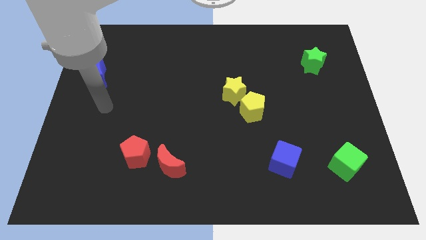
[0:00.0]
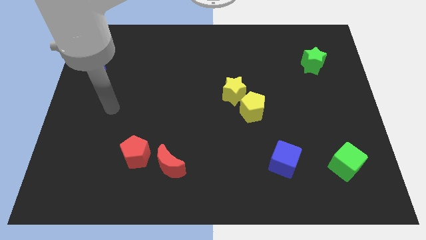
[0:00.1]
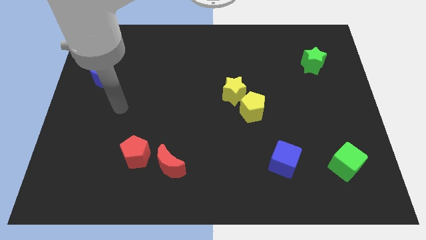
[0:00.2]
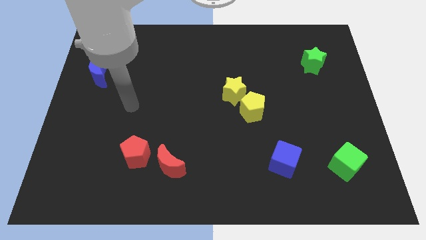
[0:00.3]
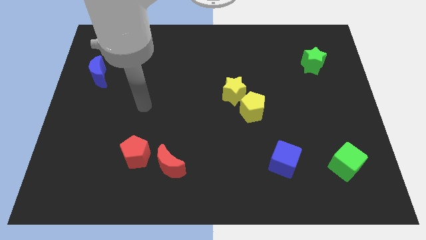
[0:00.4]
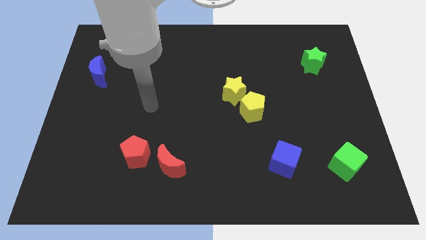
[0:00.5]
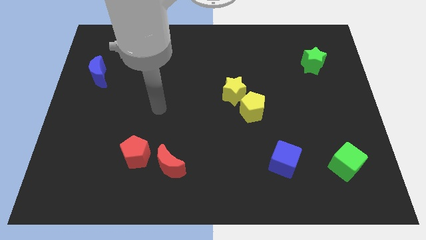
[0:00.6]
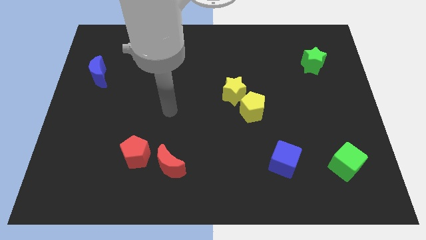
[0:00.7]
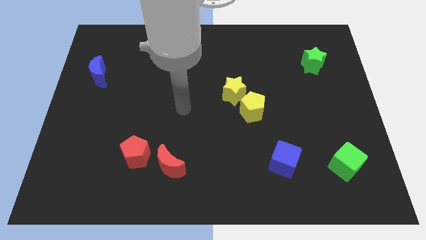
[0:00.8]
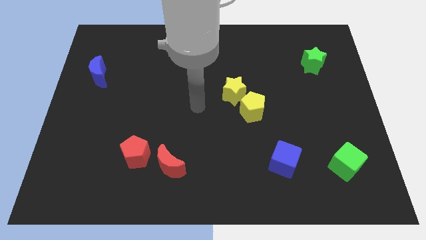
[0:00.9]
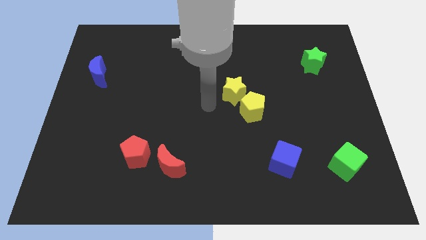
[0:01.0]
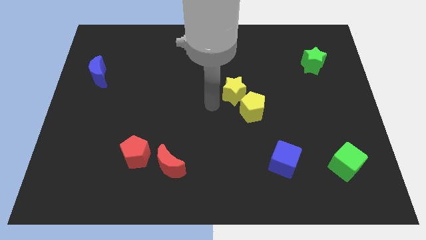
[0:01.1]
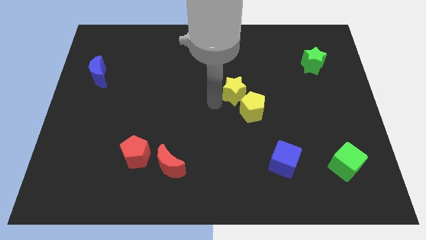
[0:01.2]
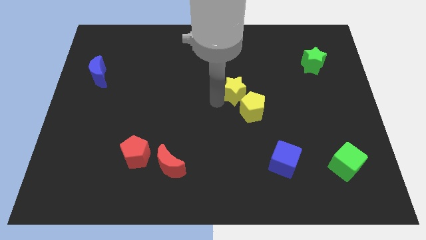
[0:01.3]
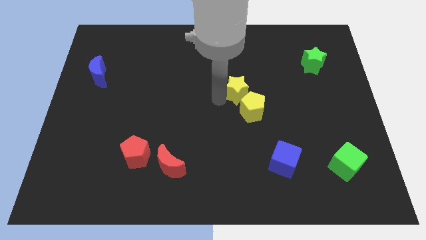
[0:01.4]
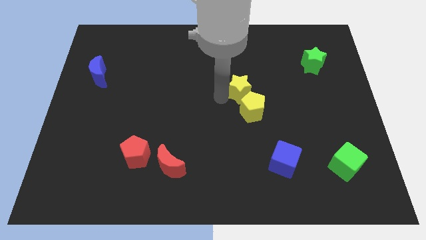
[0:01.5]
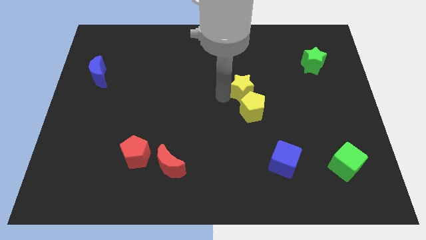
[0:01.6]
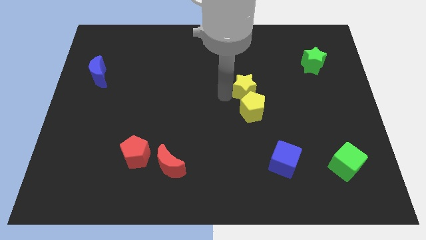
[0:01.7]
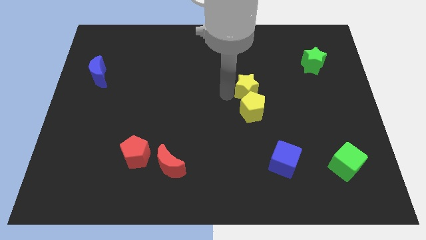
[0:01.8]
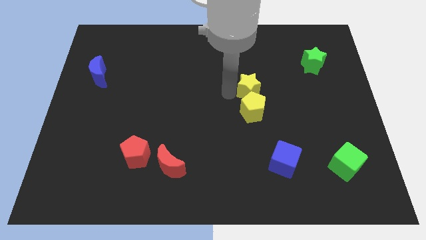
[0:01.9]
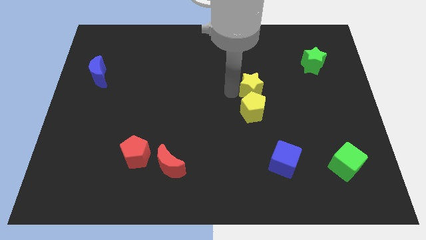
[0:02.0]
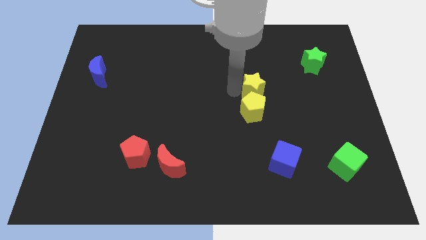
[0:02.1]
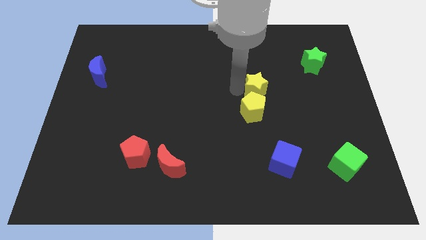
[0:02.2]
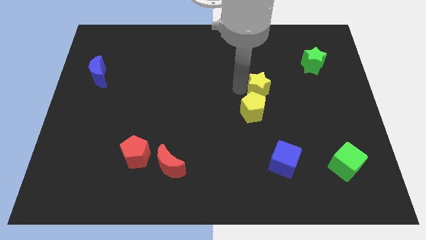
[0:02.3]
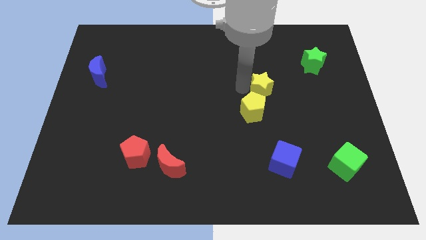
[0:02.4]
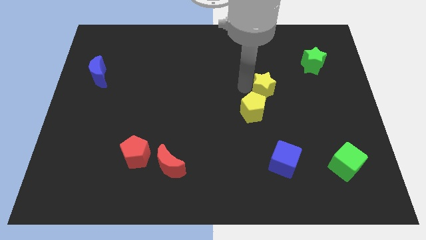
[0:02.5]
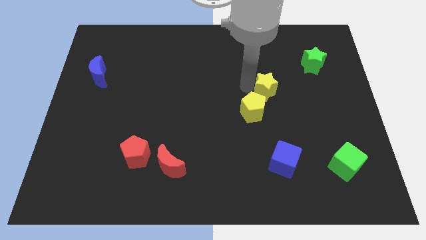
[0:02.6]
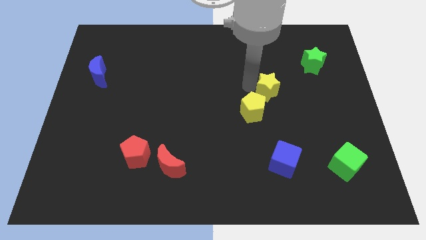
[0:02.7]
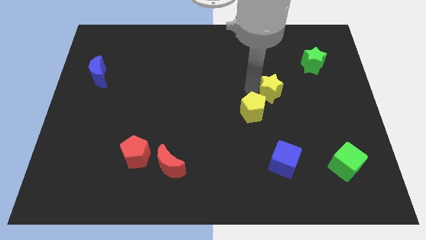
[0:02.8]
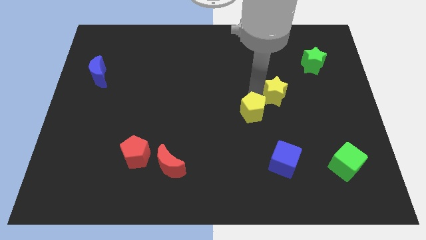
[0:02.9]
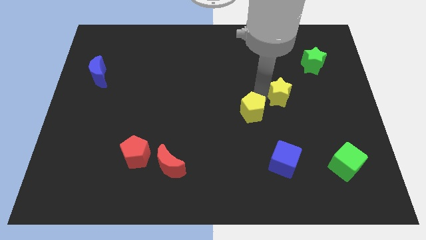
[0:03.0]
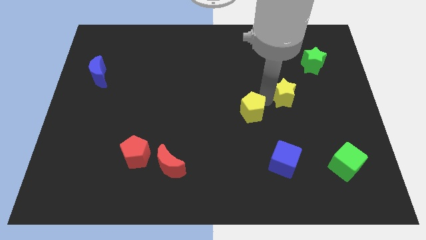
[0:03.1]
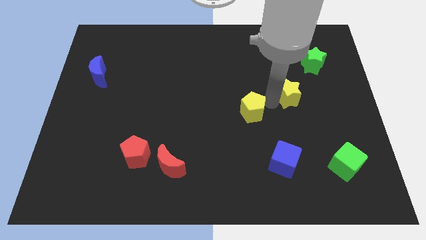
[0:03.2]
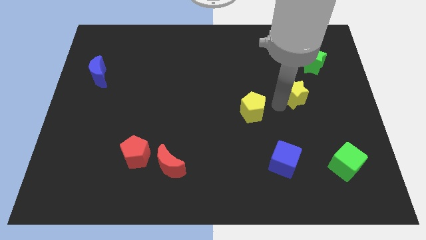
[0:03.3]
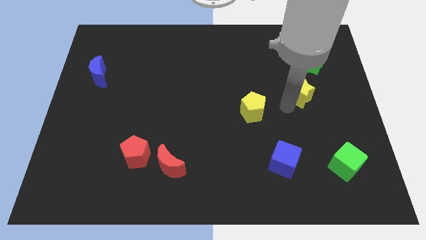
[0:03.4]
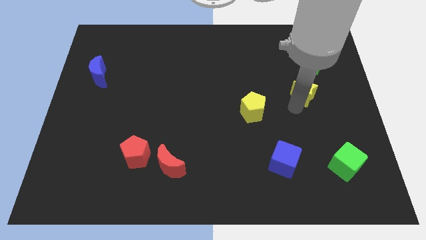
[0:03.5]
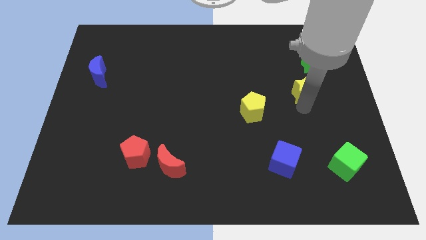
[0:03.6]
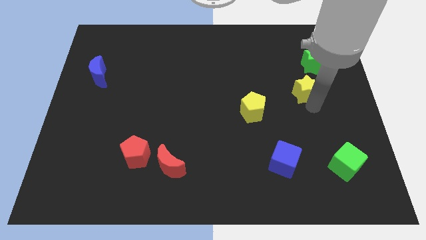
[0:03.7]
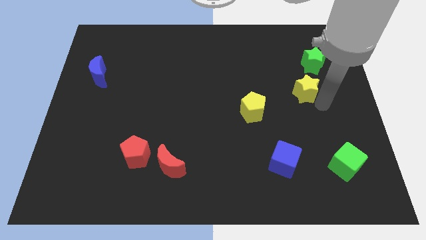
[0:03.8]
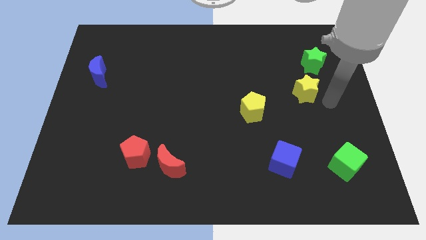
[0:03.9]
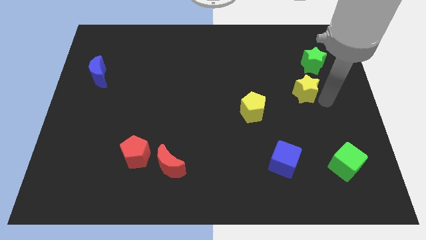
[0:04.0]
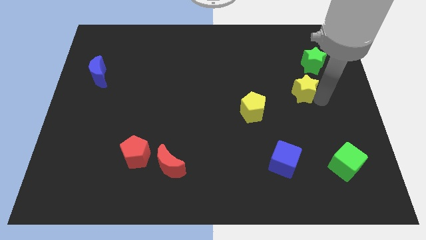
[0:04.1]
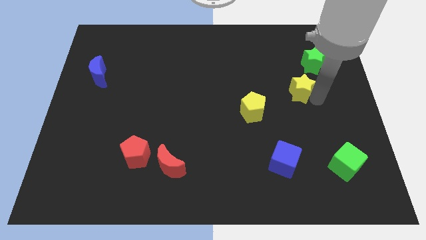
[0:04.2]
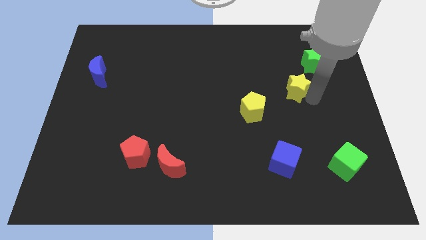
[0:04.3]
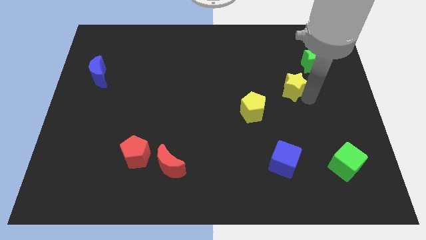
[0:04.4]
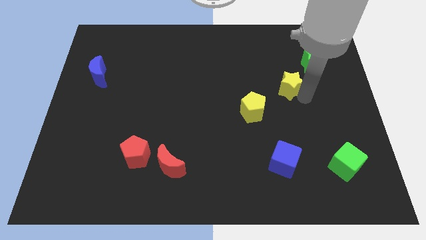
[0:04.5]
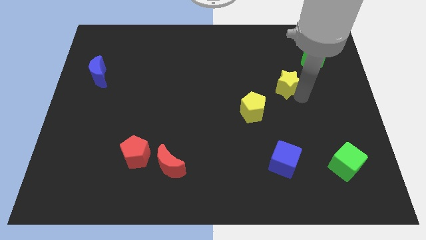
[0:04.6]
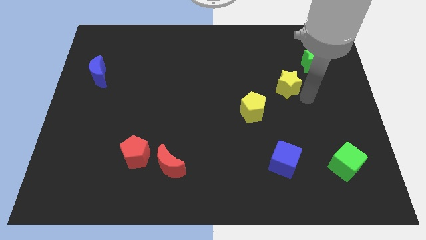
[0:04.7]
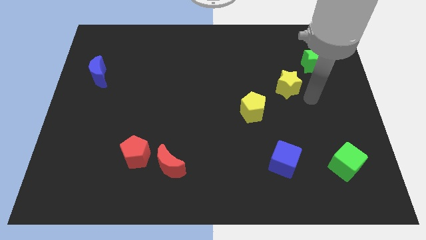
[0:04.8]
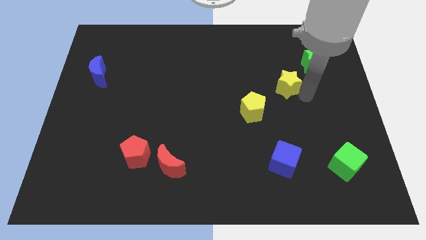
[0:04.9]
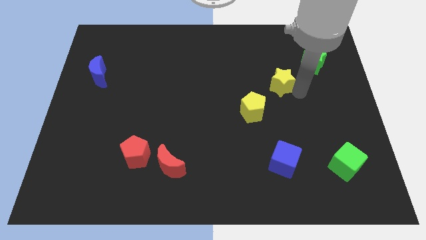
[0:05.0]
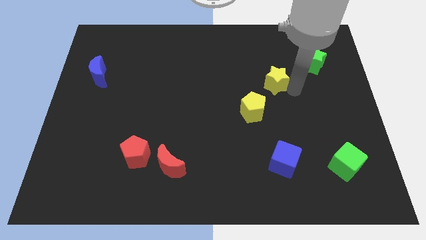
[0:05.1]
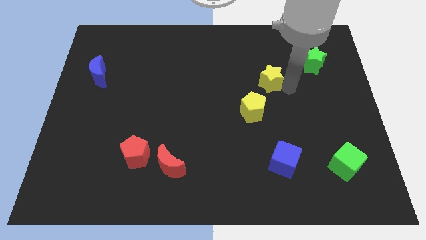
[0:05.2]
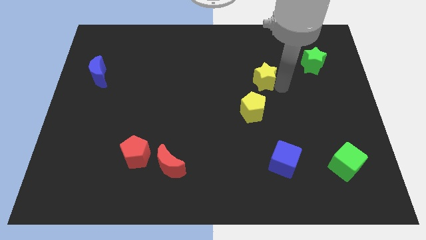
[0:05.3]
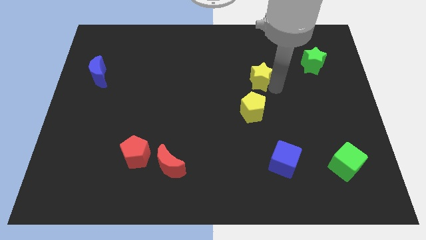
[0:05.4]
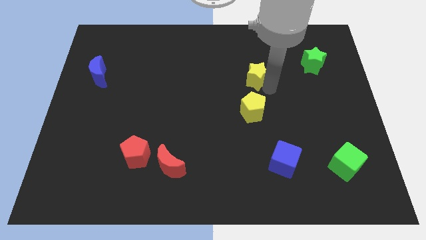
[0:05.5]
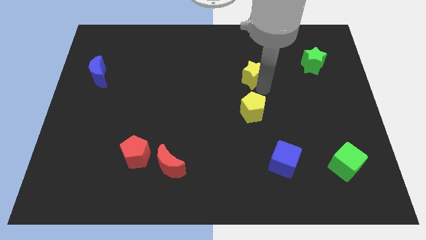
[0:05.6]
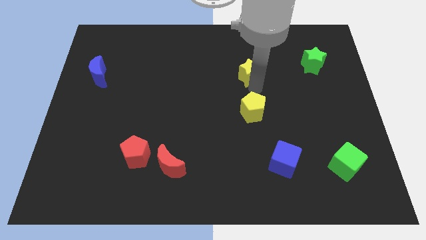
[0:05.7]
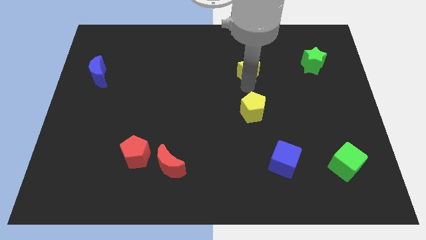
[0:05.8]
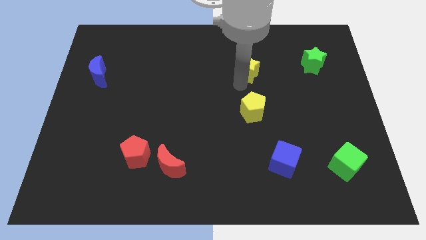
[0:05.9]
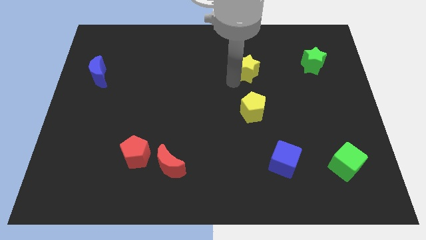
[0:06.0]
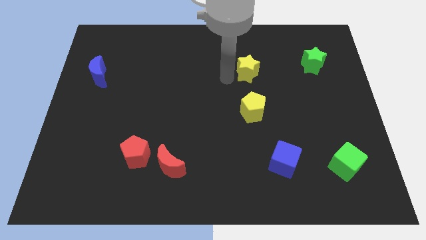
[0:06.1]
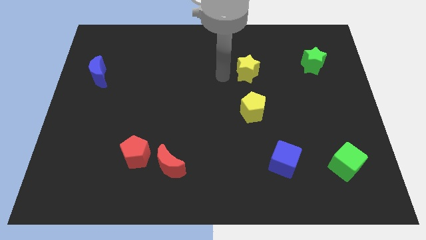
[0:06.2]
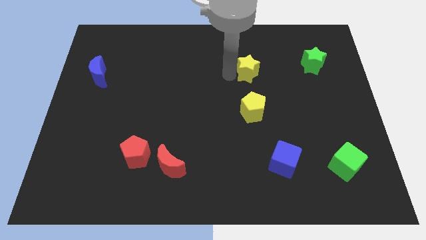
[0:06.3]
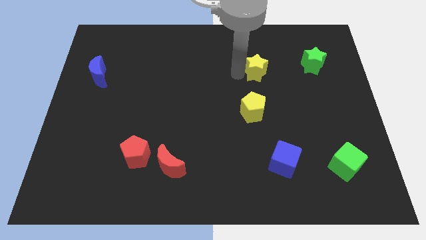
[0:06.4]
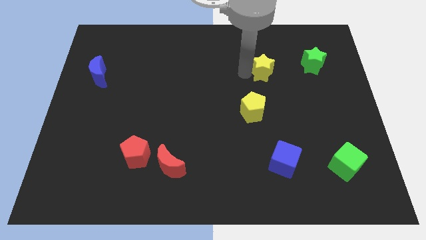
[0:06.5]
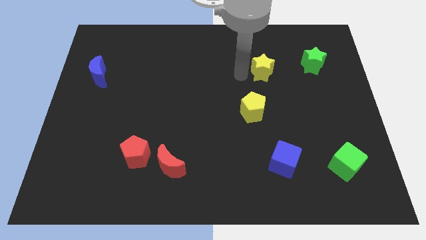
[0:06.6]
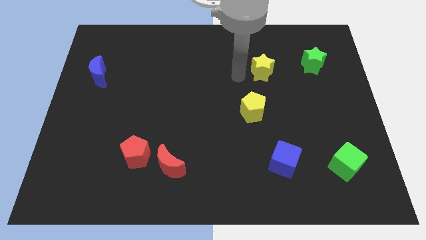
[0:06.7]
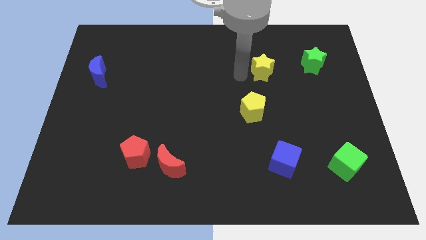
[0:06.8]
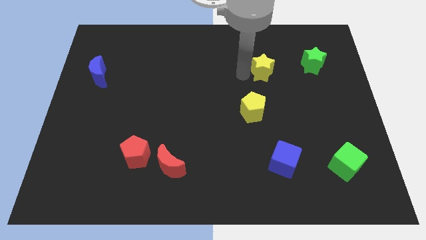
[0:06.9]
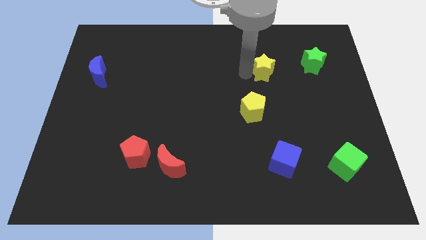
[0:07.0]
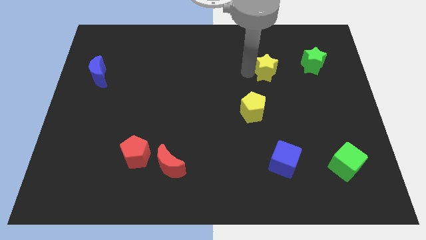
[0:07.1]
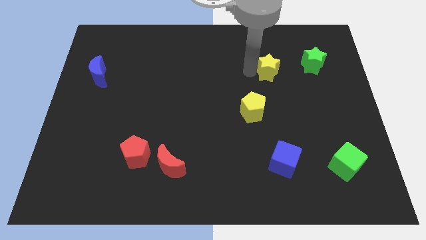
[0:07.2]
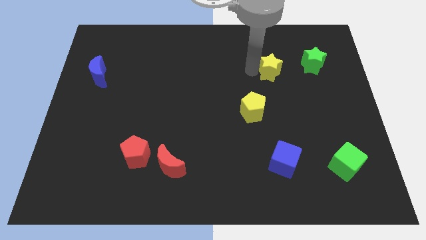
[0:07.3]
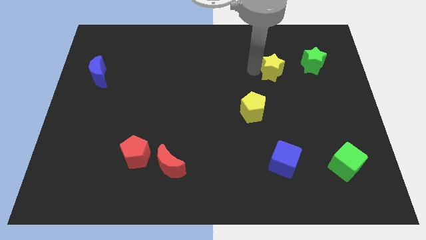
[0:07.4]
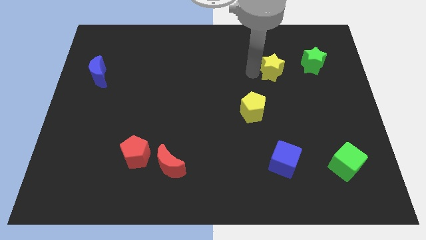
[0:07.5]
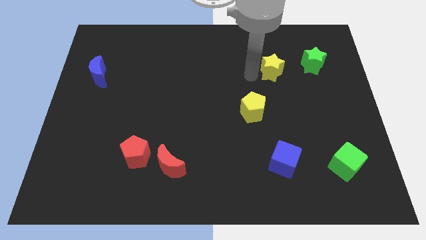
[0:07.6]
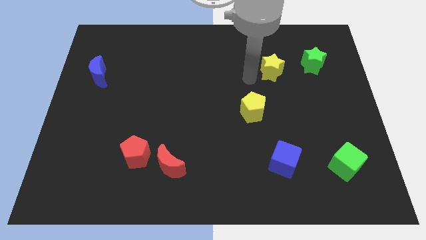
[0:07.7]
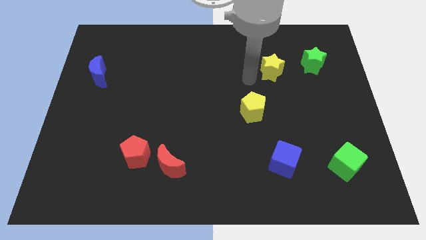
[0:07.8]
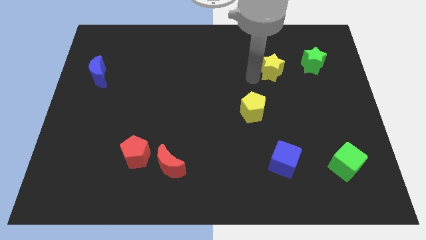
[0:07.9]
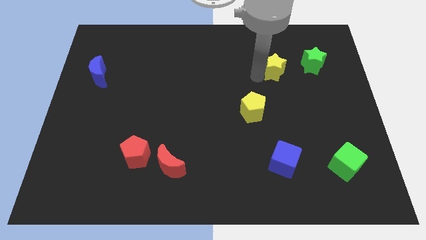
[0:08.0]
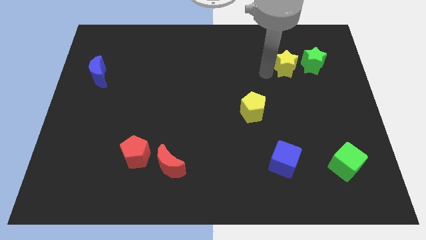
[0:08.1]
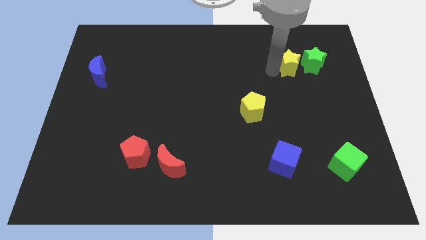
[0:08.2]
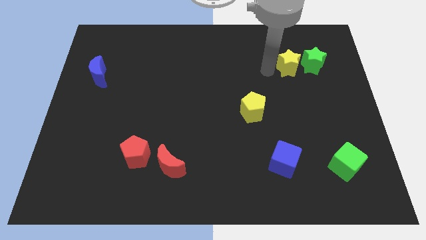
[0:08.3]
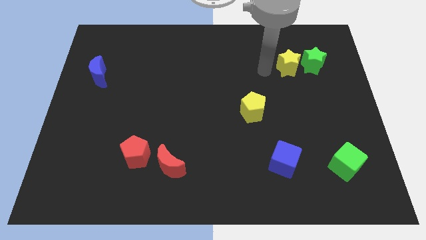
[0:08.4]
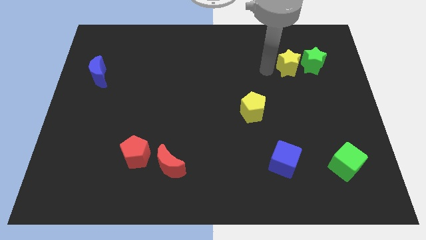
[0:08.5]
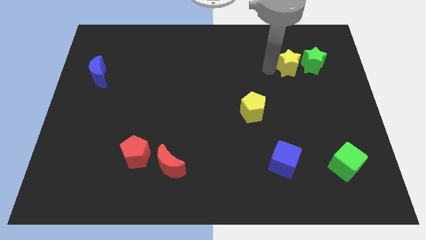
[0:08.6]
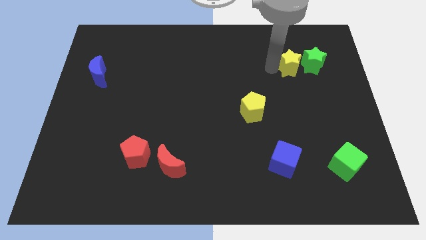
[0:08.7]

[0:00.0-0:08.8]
move the yellow star close to the green star
